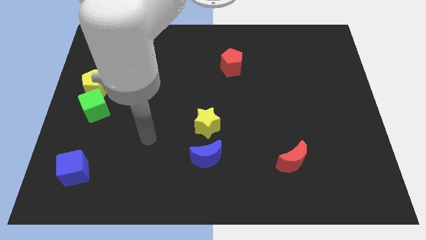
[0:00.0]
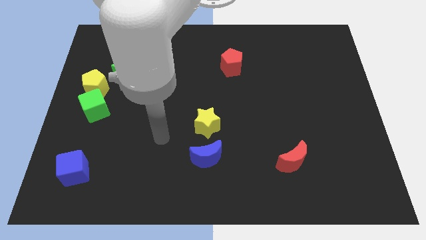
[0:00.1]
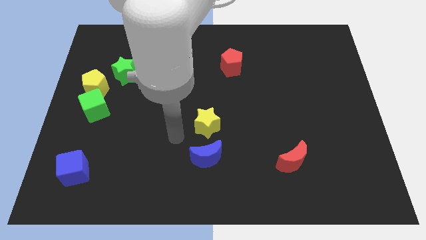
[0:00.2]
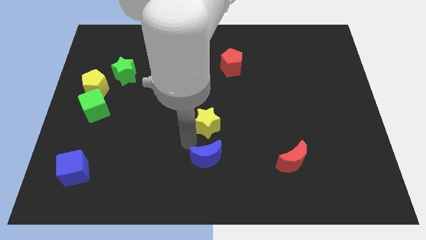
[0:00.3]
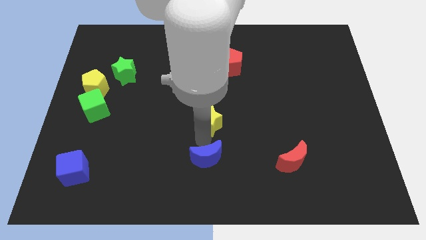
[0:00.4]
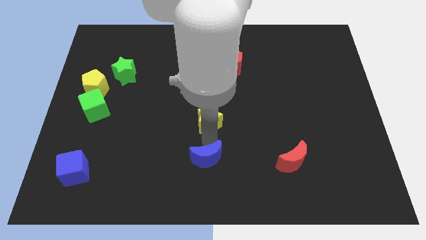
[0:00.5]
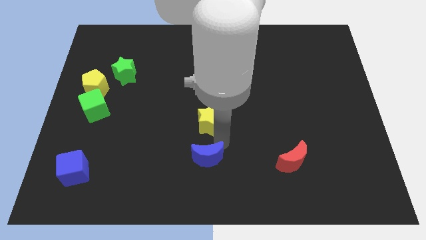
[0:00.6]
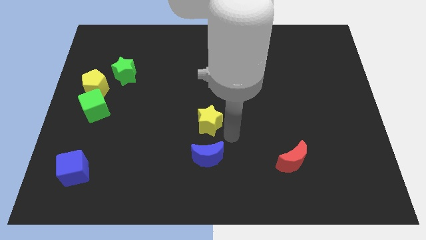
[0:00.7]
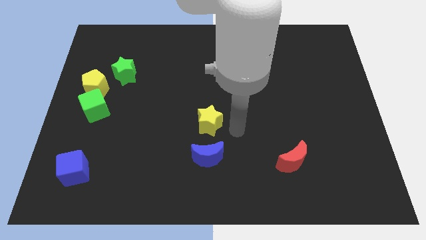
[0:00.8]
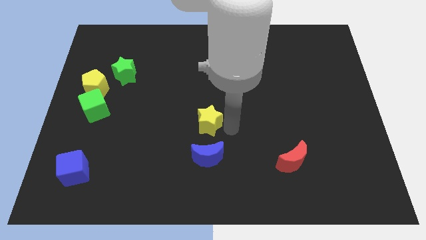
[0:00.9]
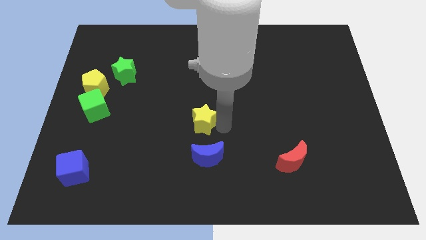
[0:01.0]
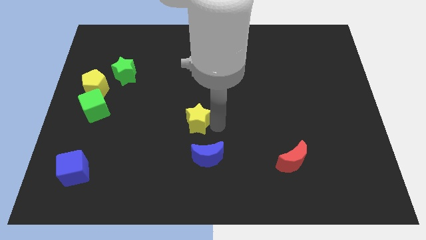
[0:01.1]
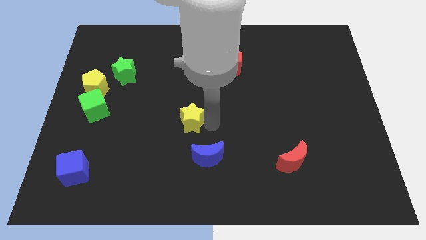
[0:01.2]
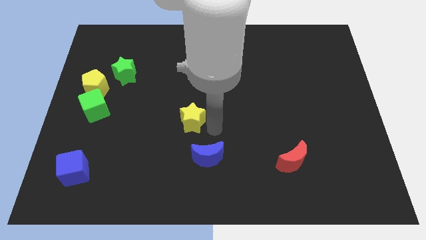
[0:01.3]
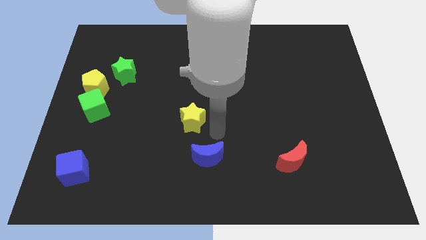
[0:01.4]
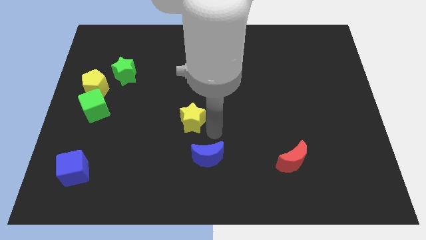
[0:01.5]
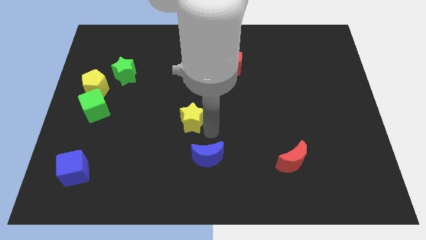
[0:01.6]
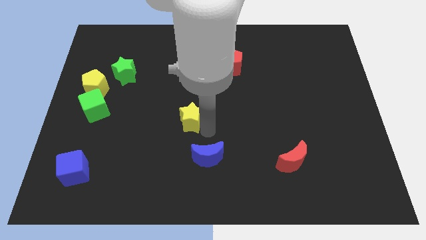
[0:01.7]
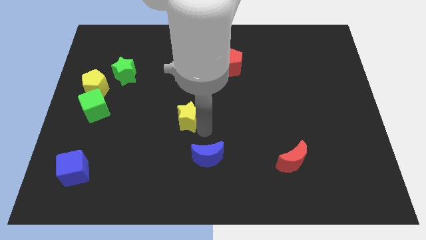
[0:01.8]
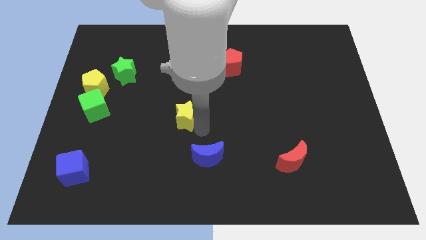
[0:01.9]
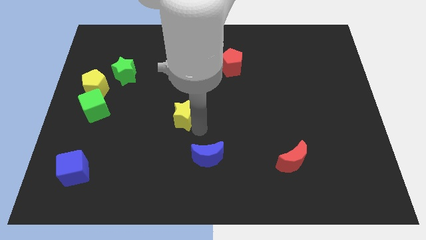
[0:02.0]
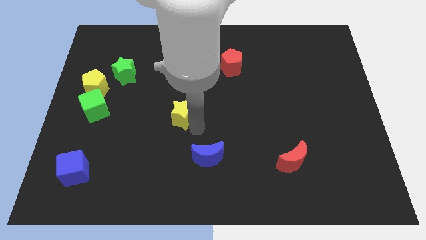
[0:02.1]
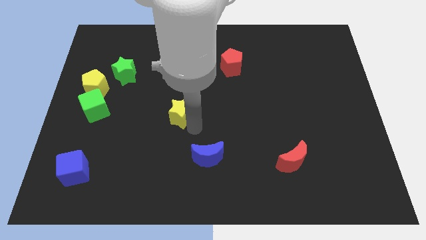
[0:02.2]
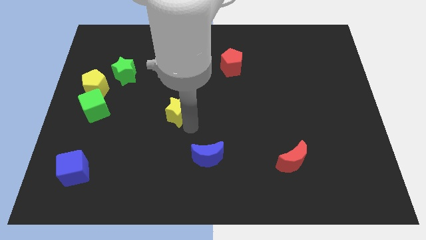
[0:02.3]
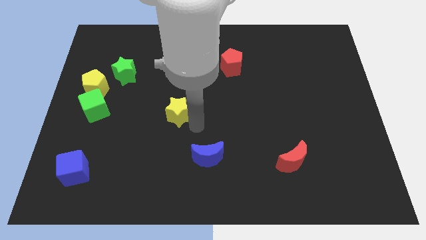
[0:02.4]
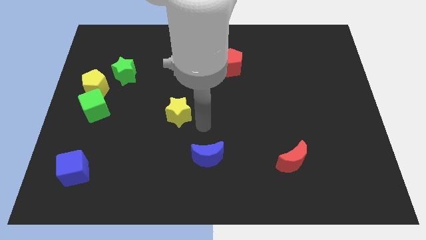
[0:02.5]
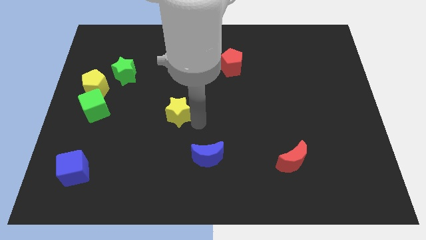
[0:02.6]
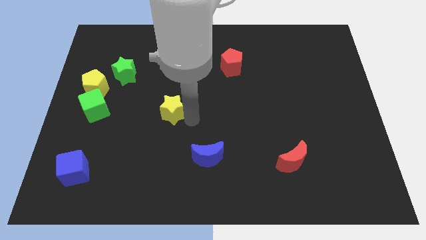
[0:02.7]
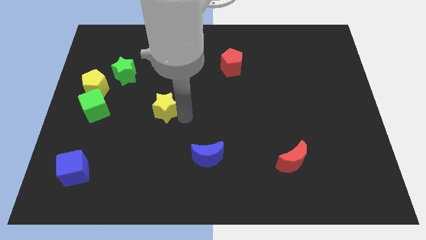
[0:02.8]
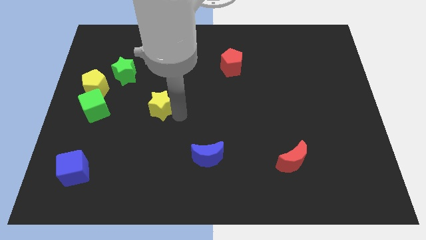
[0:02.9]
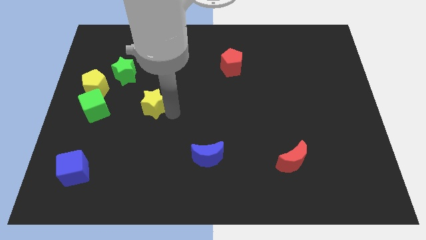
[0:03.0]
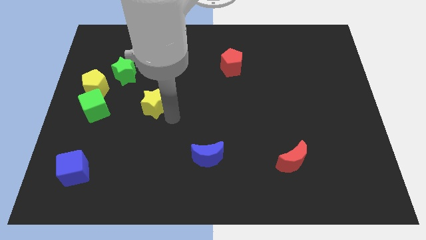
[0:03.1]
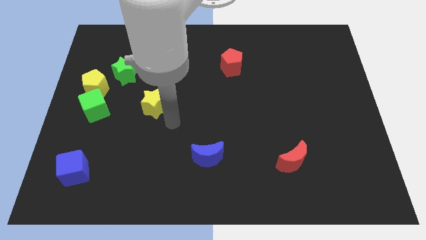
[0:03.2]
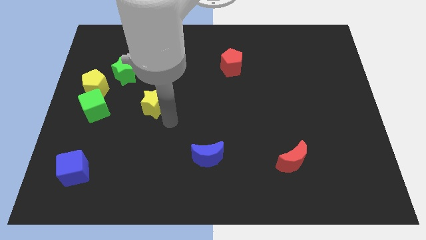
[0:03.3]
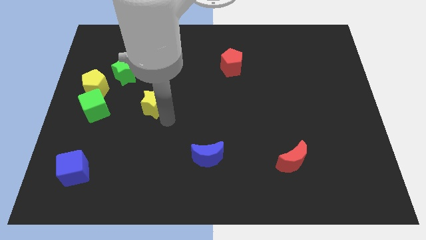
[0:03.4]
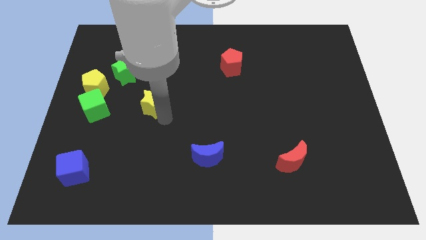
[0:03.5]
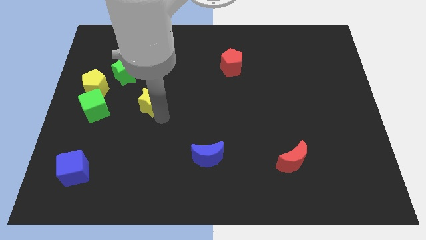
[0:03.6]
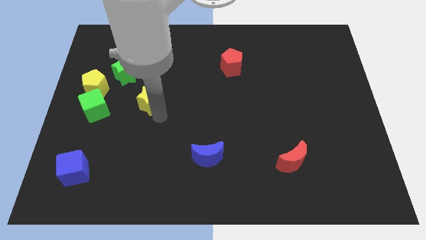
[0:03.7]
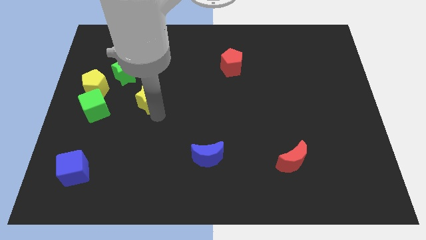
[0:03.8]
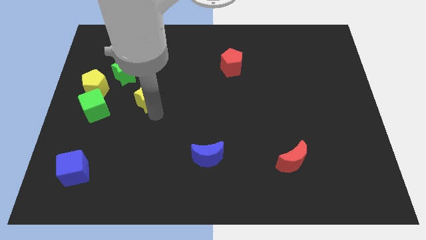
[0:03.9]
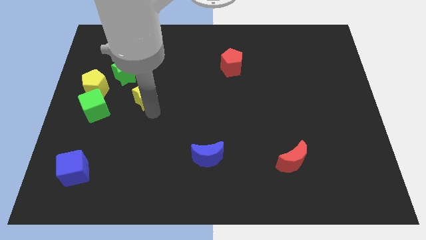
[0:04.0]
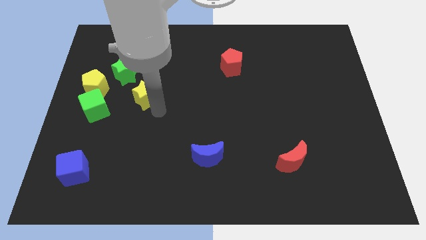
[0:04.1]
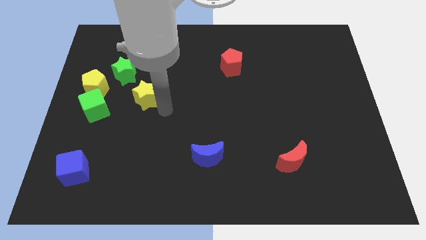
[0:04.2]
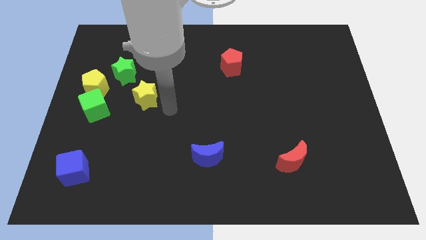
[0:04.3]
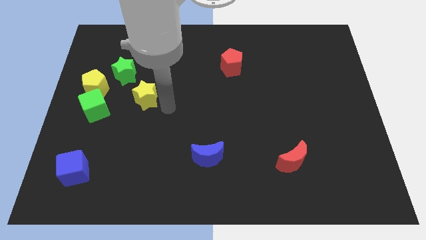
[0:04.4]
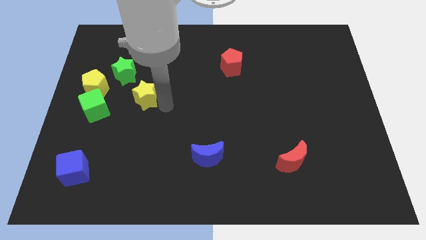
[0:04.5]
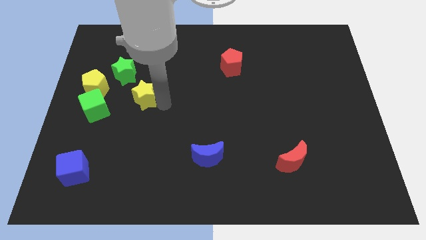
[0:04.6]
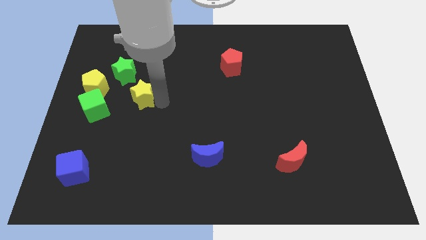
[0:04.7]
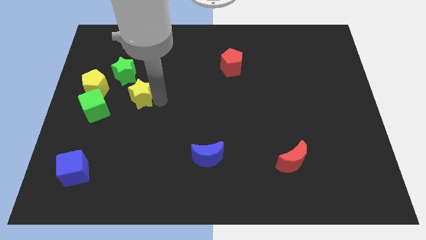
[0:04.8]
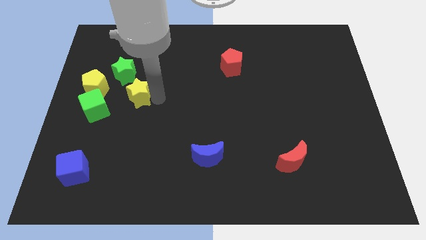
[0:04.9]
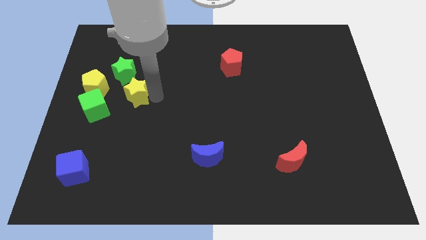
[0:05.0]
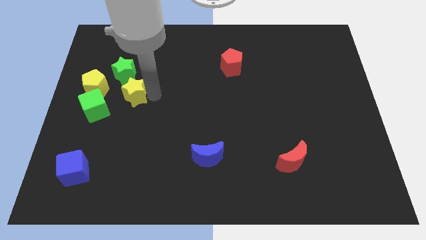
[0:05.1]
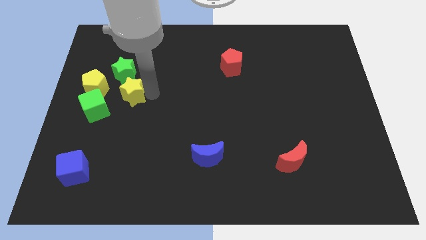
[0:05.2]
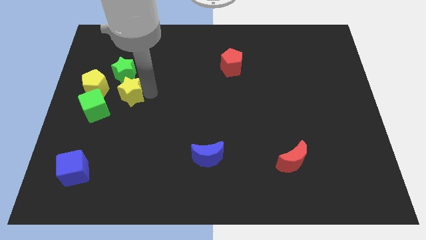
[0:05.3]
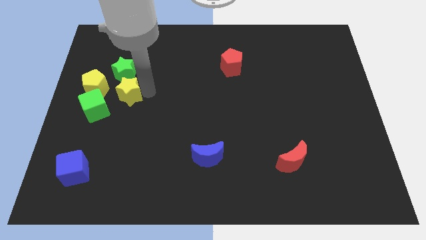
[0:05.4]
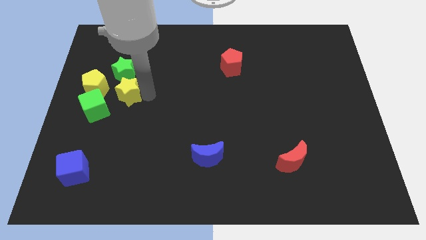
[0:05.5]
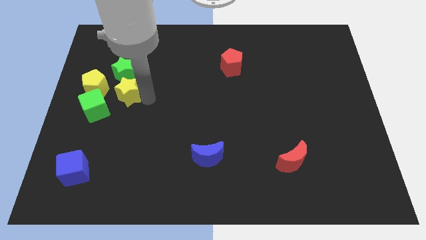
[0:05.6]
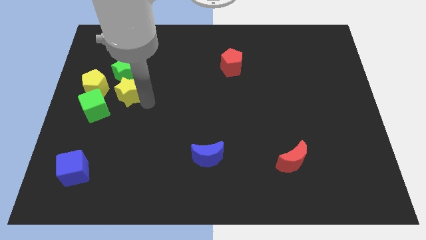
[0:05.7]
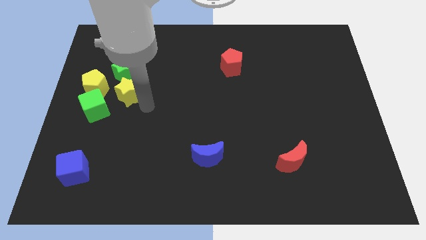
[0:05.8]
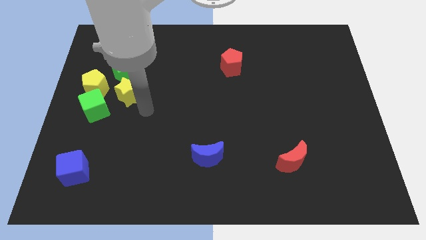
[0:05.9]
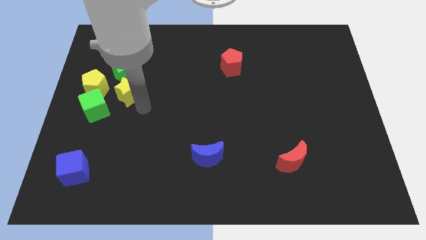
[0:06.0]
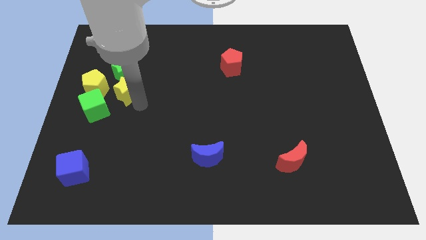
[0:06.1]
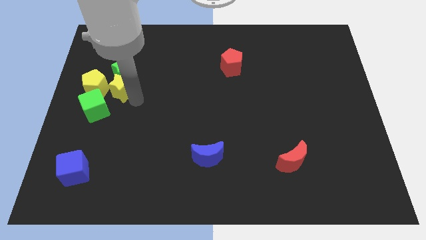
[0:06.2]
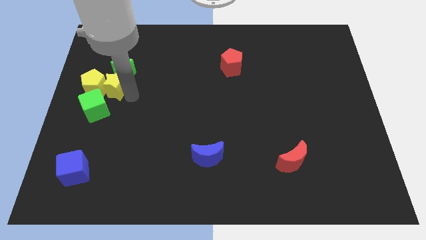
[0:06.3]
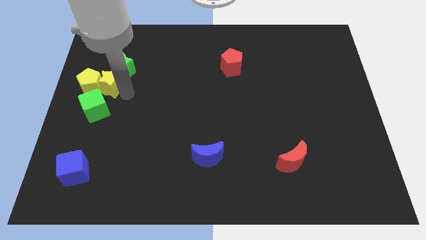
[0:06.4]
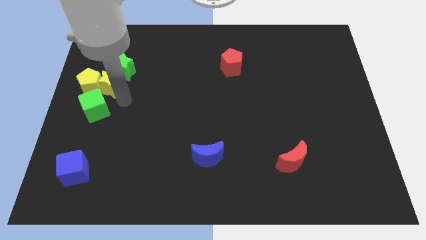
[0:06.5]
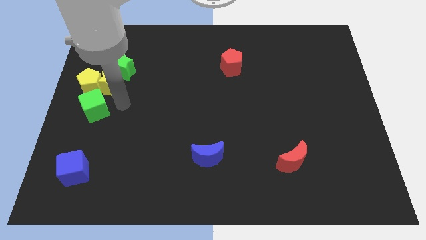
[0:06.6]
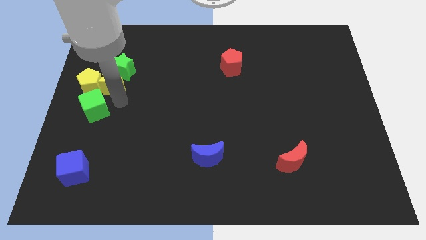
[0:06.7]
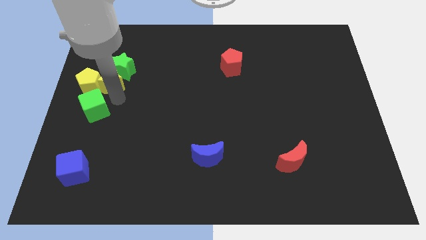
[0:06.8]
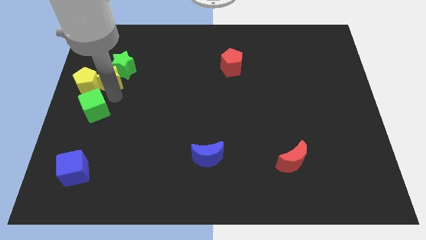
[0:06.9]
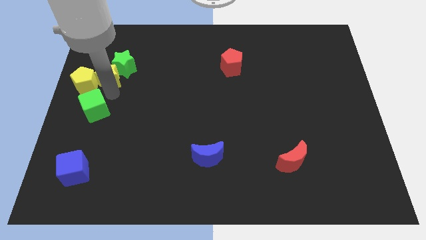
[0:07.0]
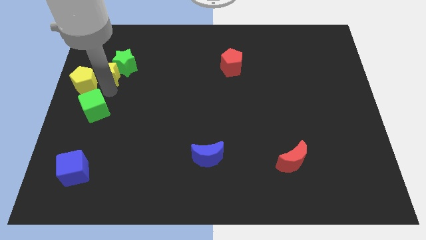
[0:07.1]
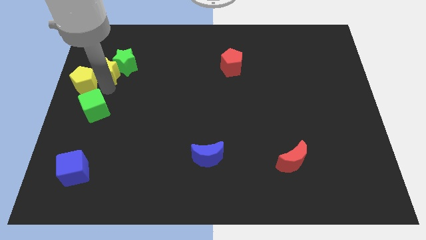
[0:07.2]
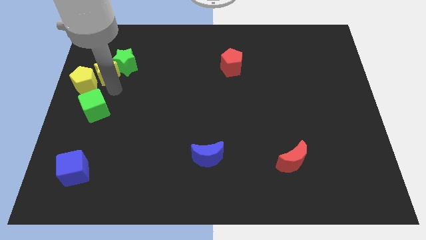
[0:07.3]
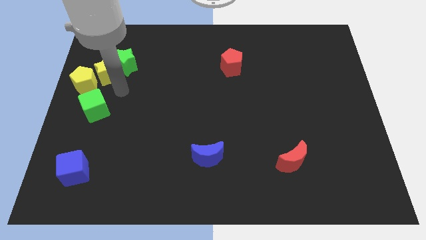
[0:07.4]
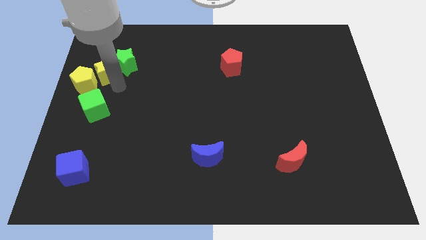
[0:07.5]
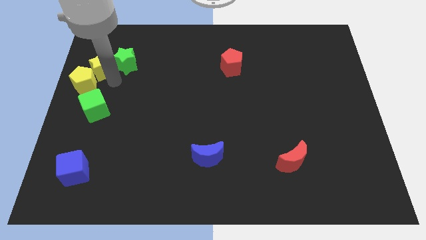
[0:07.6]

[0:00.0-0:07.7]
slide the yellow star to the top side of the yellow pentagon
